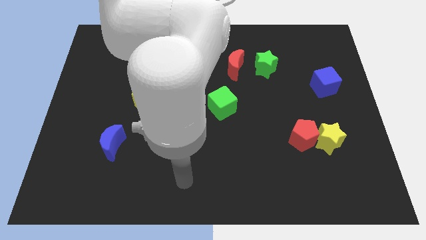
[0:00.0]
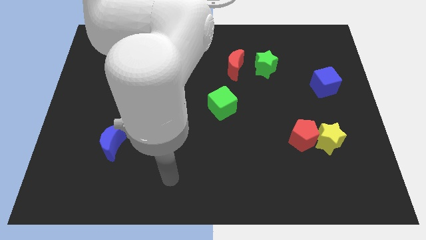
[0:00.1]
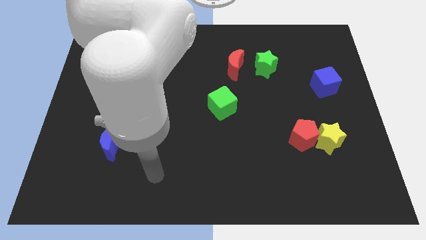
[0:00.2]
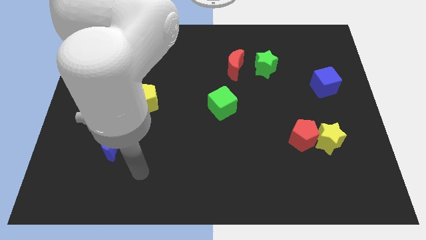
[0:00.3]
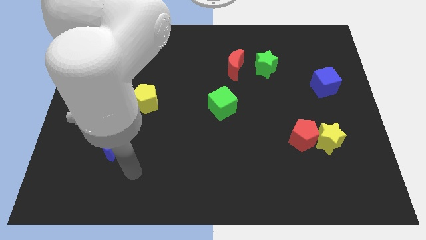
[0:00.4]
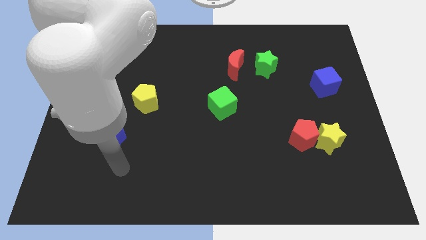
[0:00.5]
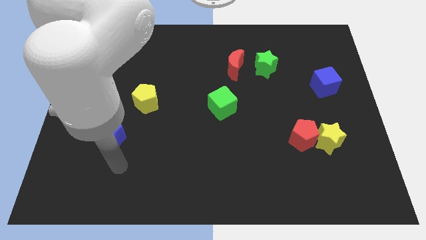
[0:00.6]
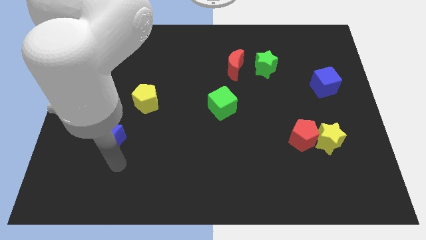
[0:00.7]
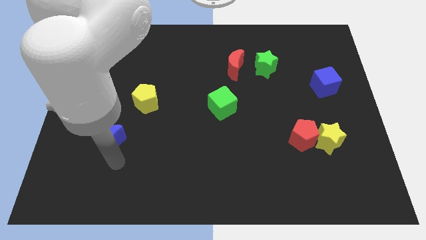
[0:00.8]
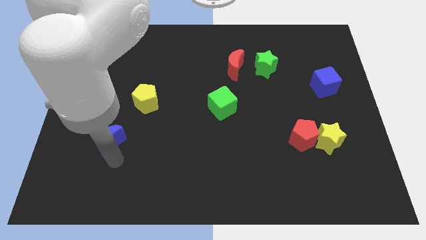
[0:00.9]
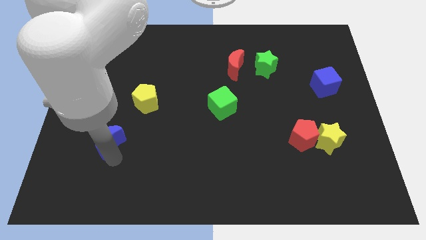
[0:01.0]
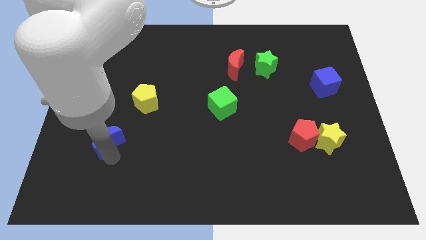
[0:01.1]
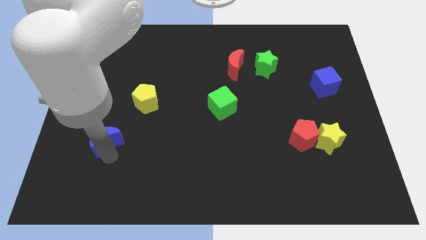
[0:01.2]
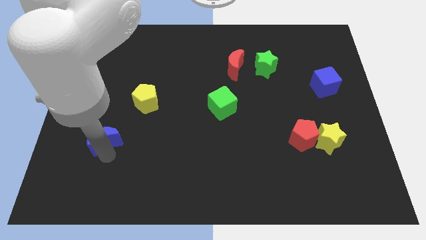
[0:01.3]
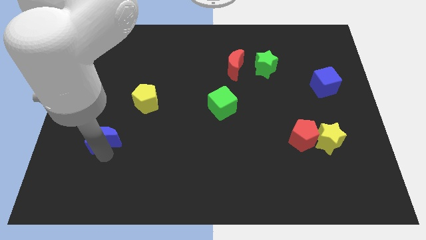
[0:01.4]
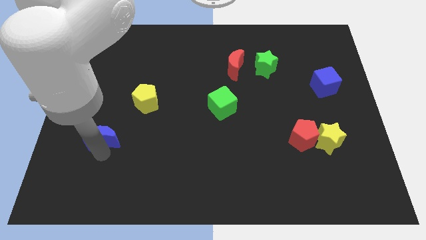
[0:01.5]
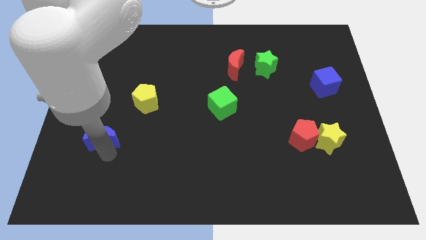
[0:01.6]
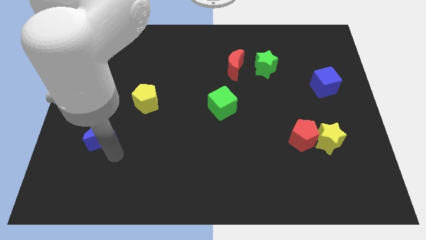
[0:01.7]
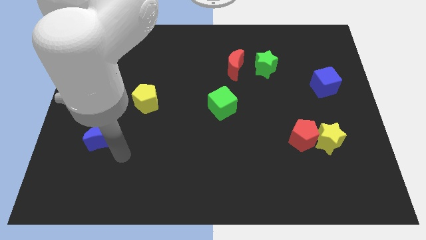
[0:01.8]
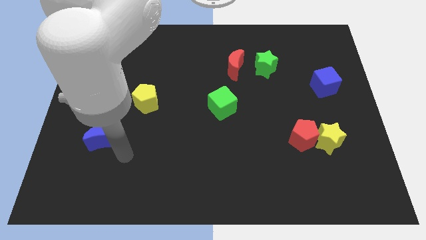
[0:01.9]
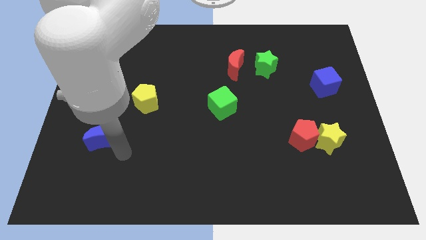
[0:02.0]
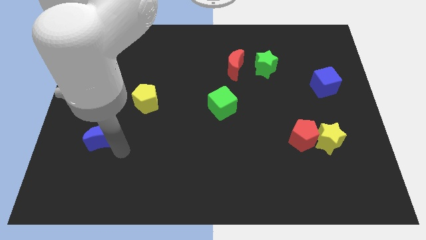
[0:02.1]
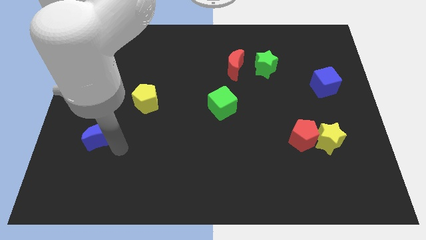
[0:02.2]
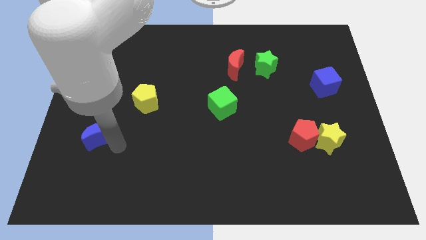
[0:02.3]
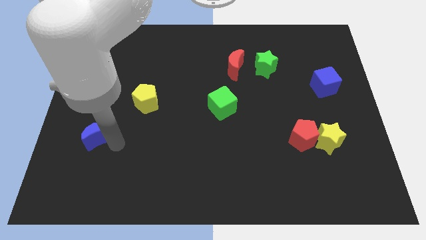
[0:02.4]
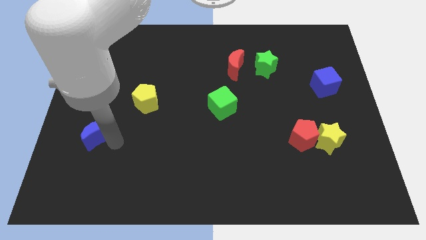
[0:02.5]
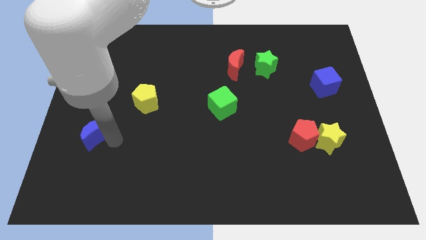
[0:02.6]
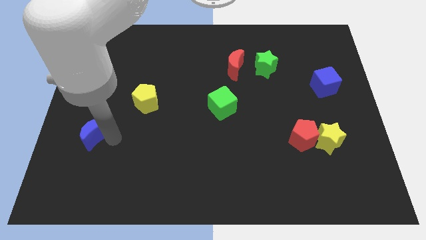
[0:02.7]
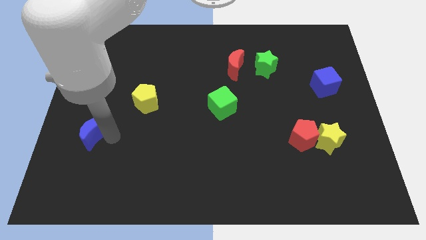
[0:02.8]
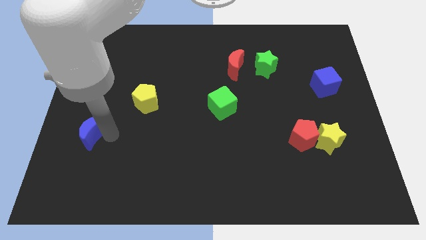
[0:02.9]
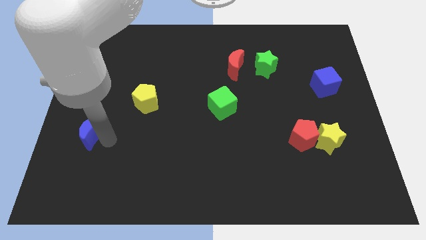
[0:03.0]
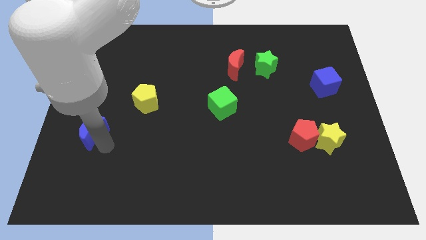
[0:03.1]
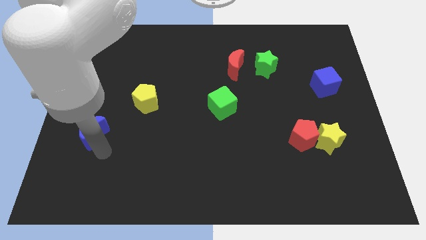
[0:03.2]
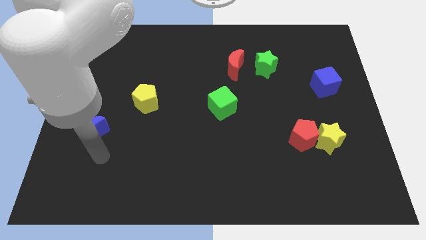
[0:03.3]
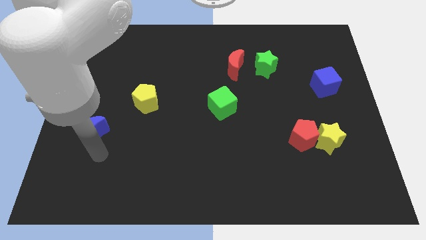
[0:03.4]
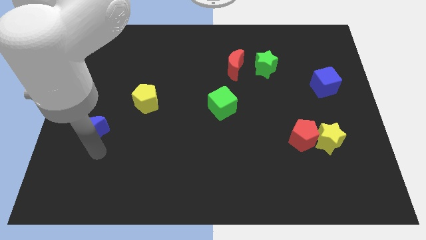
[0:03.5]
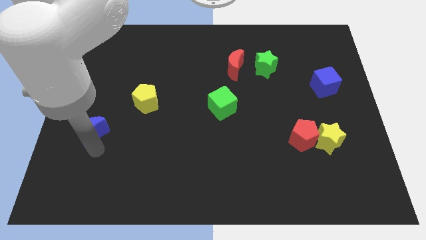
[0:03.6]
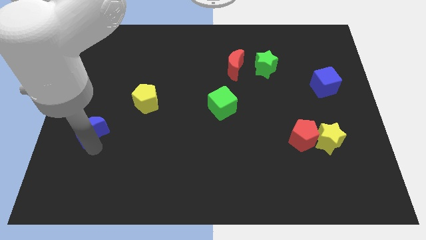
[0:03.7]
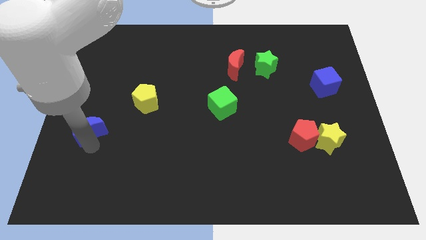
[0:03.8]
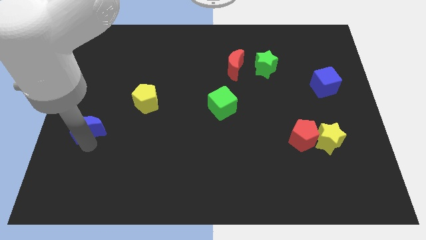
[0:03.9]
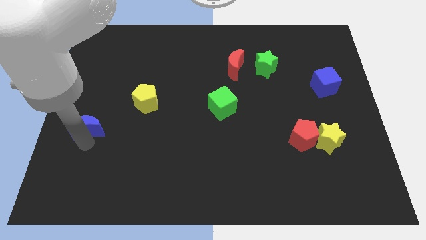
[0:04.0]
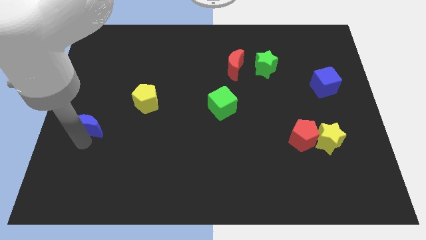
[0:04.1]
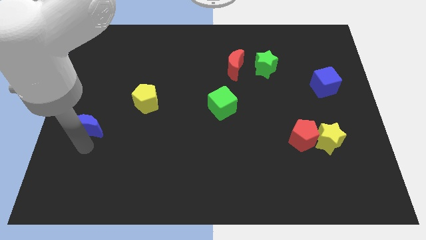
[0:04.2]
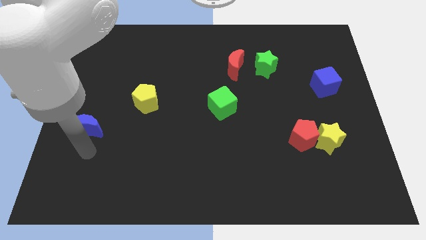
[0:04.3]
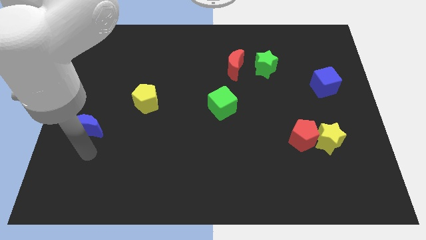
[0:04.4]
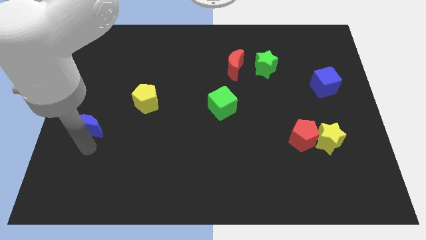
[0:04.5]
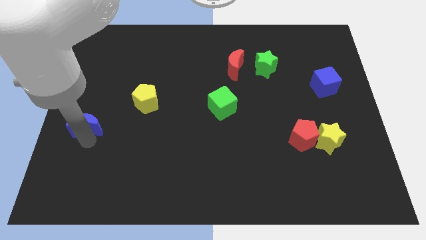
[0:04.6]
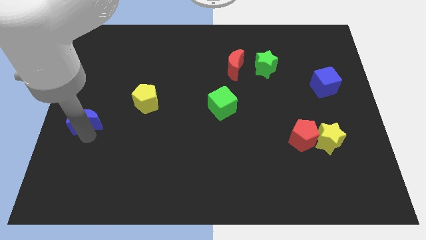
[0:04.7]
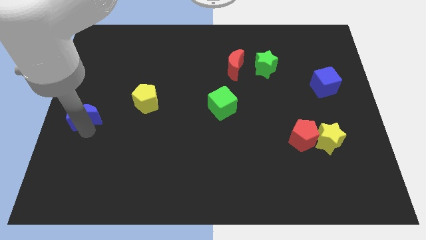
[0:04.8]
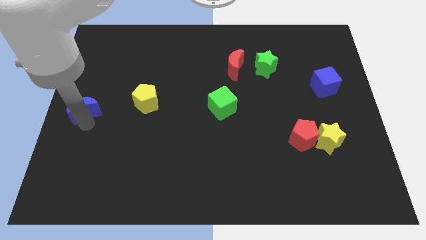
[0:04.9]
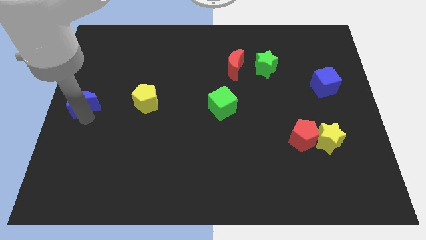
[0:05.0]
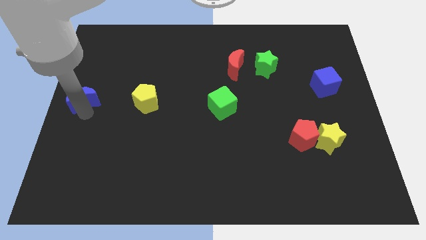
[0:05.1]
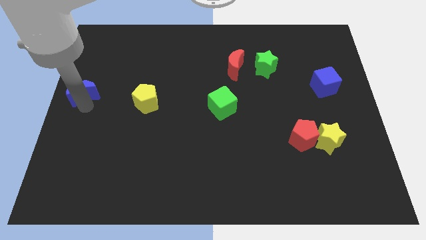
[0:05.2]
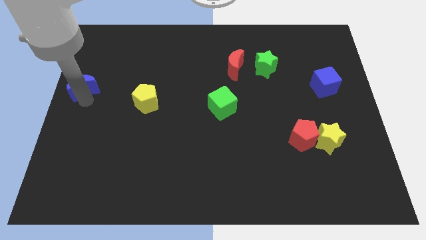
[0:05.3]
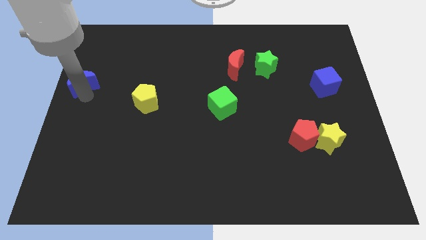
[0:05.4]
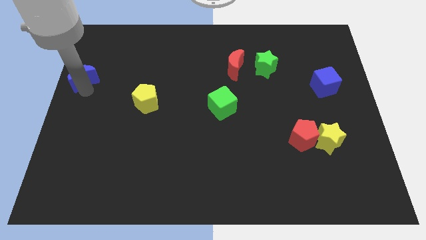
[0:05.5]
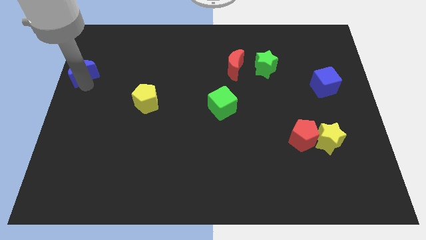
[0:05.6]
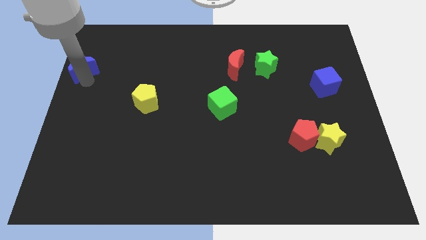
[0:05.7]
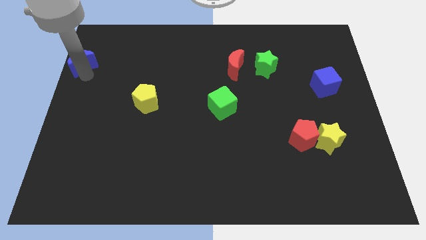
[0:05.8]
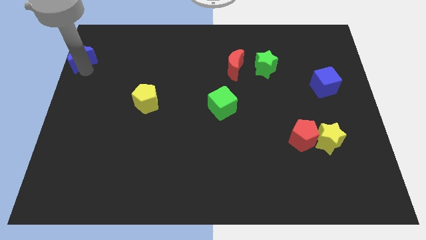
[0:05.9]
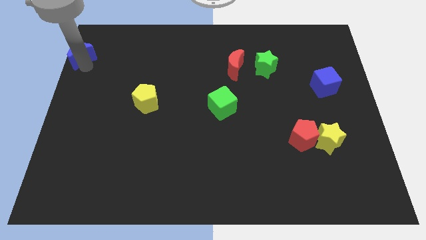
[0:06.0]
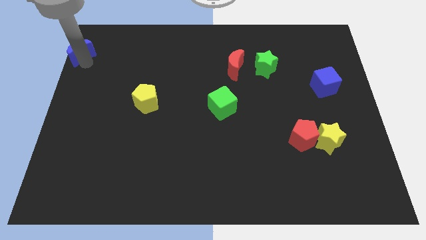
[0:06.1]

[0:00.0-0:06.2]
slide the blue moon to the top left
